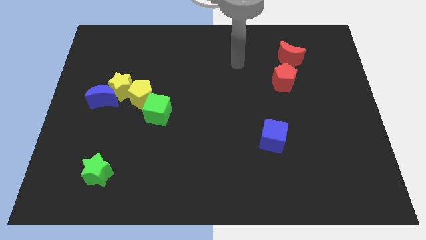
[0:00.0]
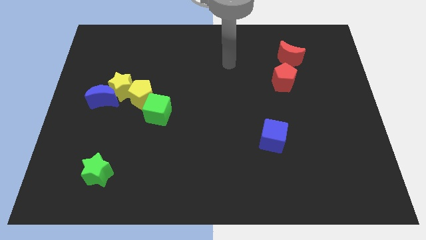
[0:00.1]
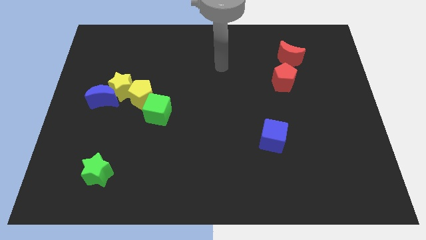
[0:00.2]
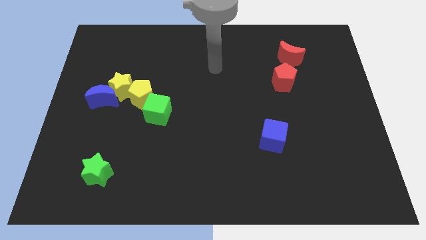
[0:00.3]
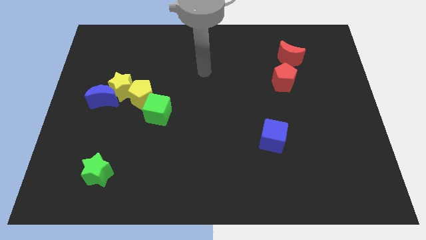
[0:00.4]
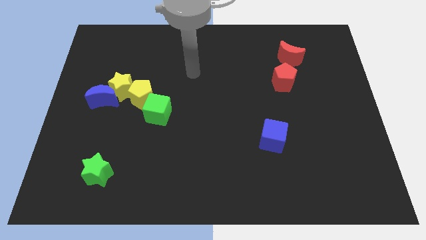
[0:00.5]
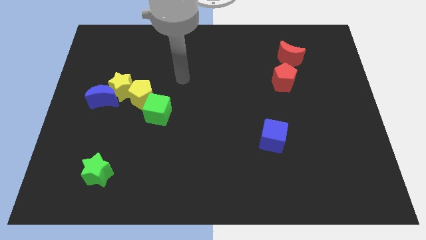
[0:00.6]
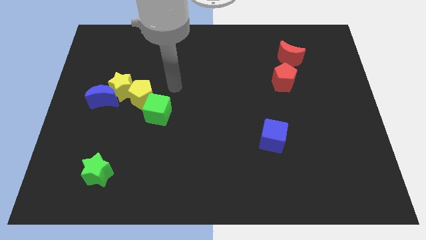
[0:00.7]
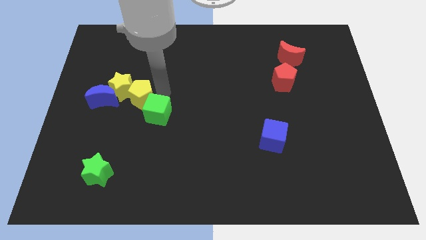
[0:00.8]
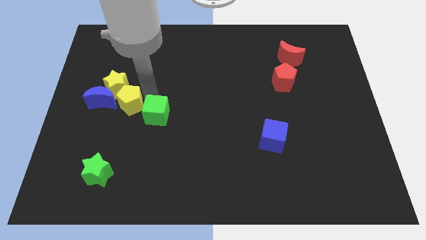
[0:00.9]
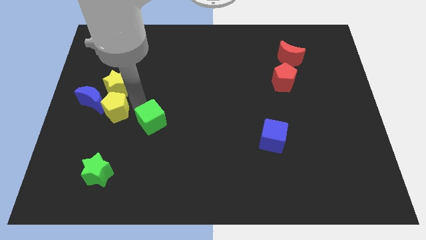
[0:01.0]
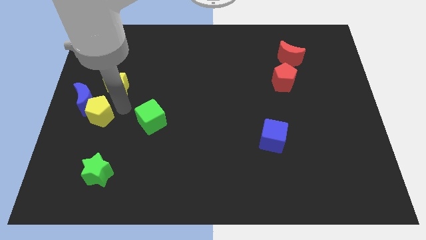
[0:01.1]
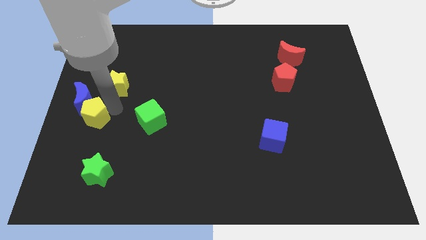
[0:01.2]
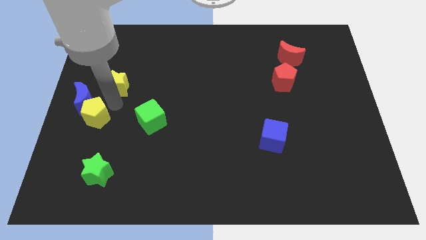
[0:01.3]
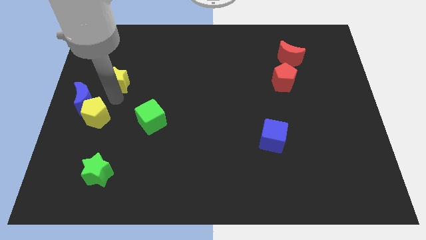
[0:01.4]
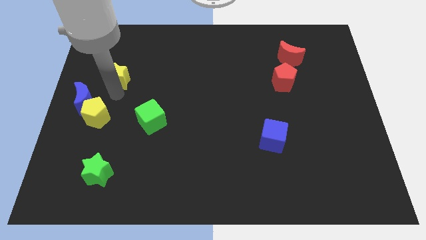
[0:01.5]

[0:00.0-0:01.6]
move the yellow star away from the blue moon and yellow pentagon

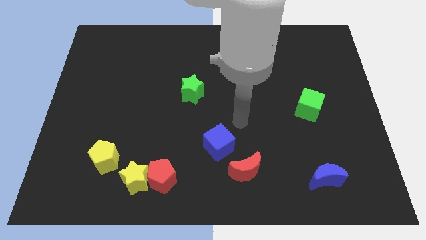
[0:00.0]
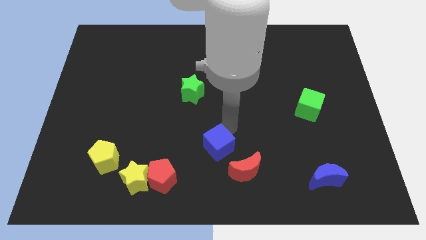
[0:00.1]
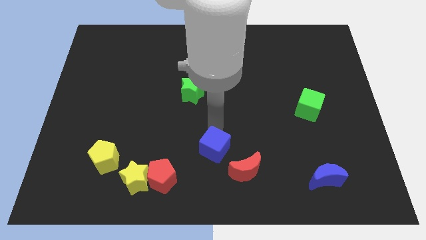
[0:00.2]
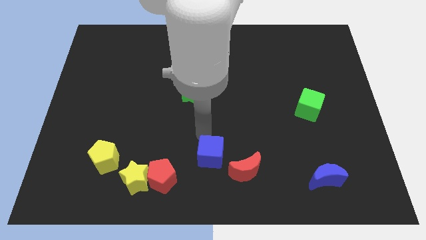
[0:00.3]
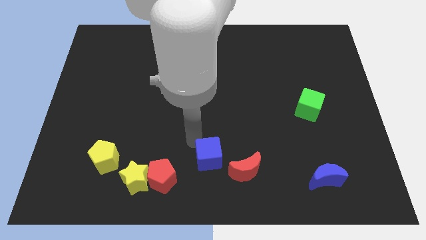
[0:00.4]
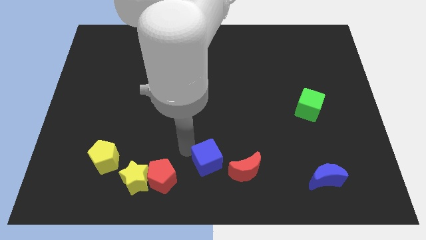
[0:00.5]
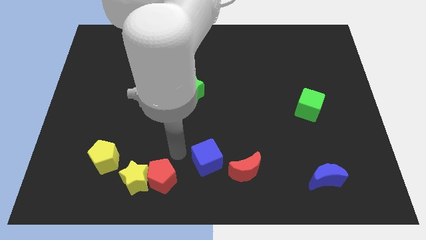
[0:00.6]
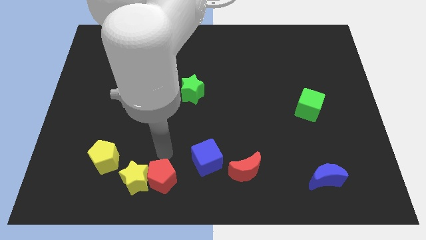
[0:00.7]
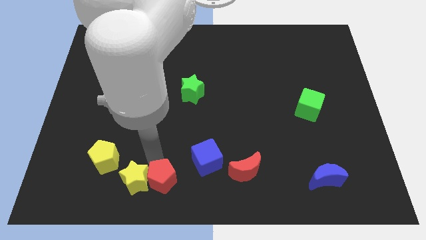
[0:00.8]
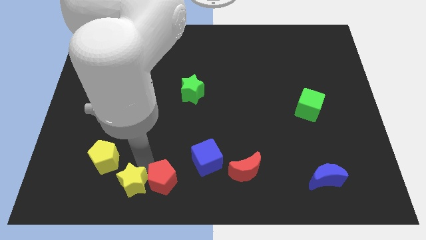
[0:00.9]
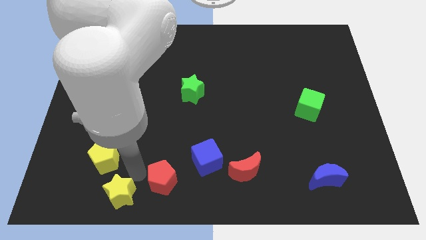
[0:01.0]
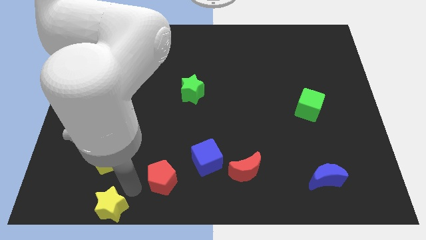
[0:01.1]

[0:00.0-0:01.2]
pull the red pentagon apart from the yellow star

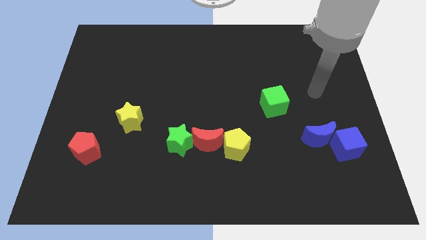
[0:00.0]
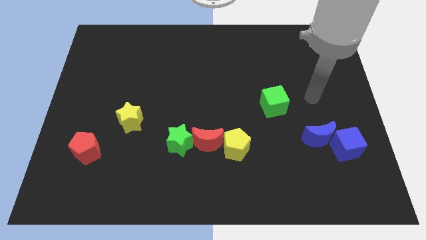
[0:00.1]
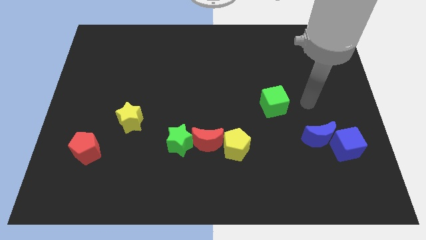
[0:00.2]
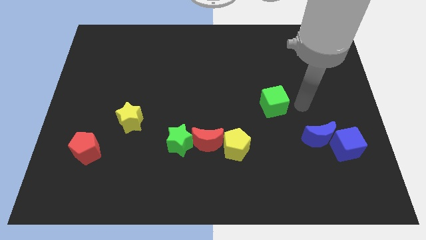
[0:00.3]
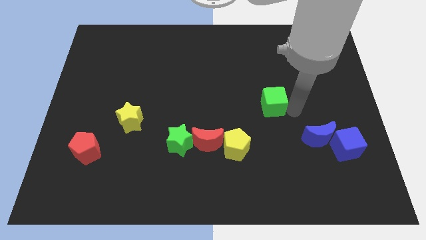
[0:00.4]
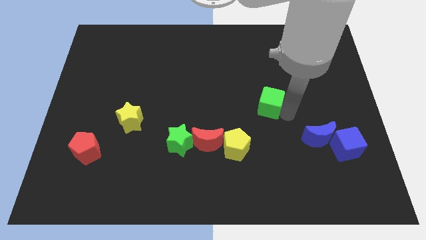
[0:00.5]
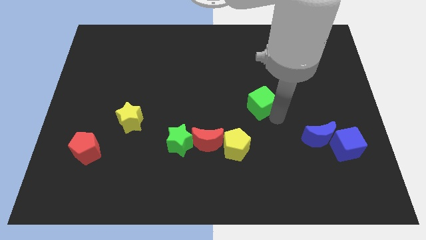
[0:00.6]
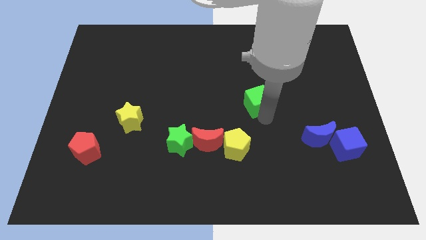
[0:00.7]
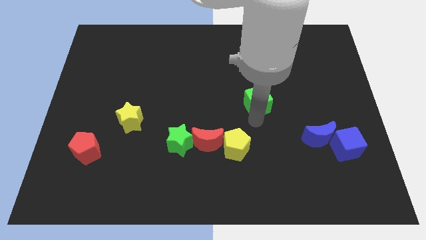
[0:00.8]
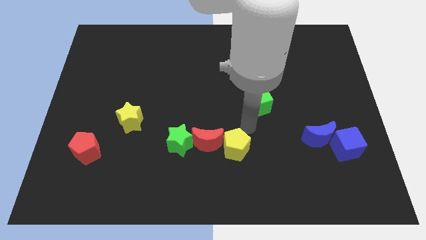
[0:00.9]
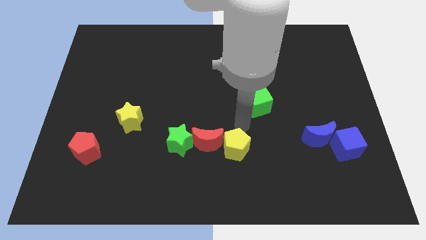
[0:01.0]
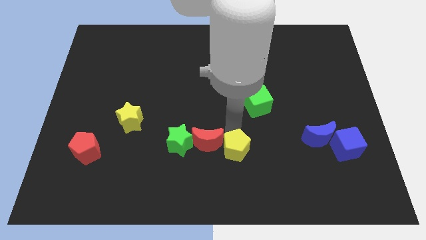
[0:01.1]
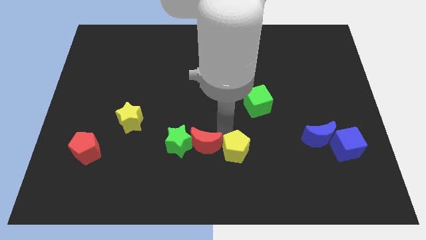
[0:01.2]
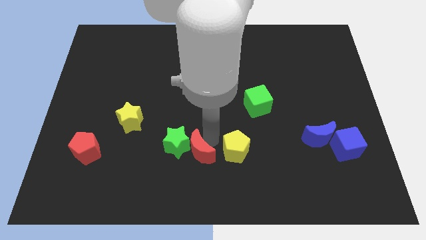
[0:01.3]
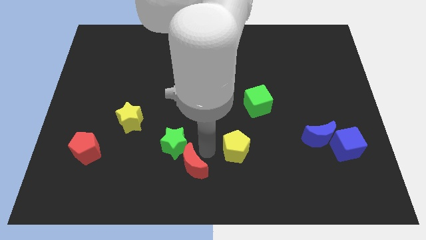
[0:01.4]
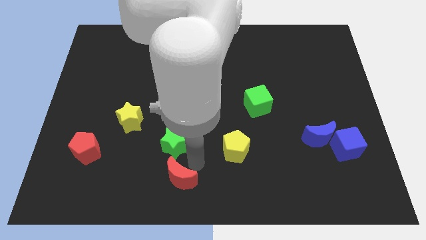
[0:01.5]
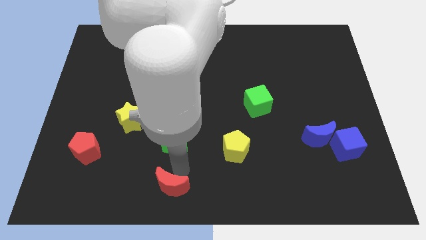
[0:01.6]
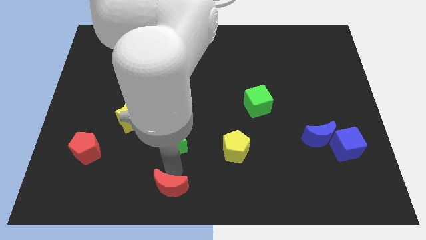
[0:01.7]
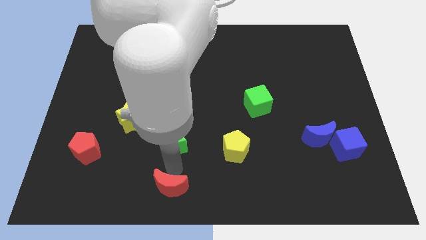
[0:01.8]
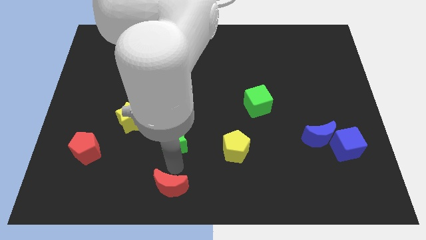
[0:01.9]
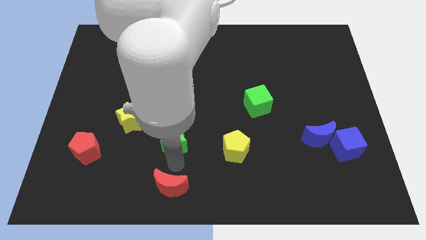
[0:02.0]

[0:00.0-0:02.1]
pull the green star apart from the red moon

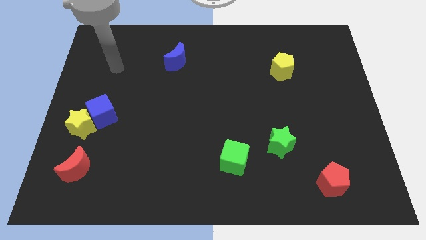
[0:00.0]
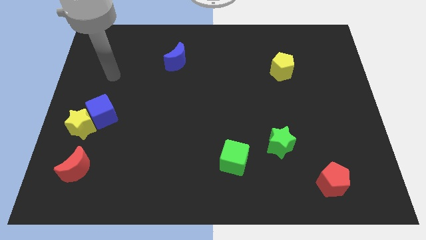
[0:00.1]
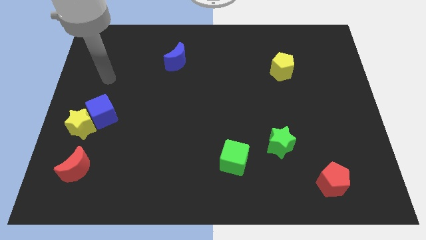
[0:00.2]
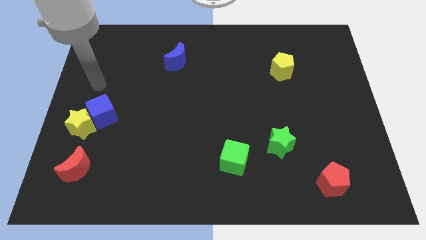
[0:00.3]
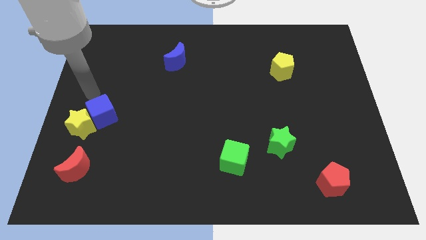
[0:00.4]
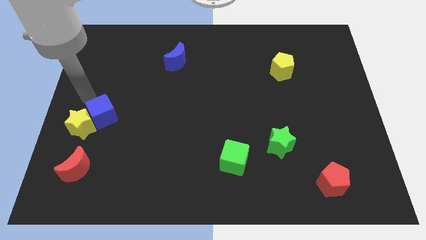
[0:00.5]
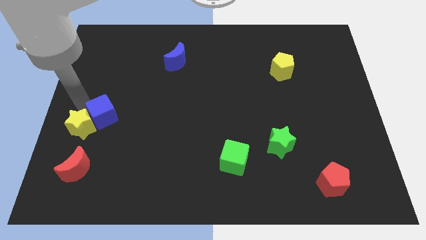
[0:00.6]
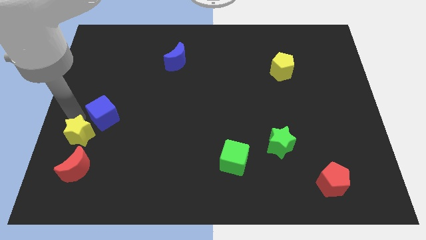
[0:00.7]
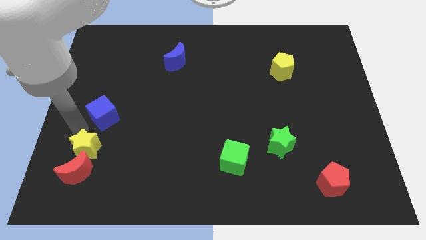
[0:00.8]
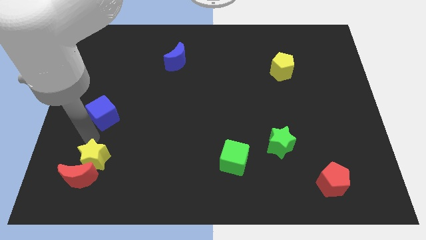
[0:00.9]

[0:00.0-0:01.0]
separate the blue cube from the yellow star

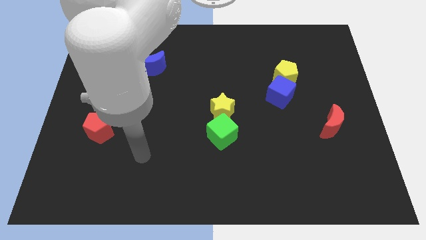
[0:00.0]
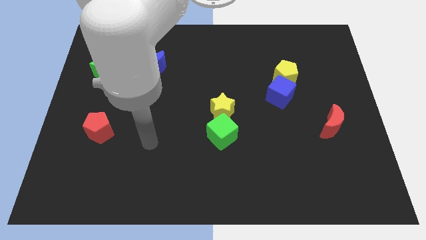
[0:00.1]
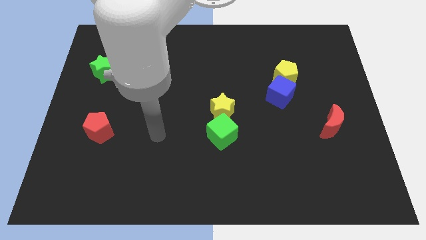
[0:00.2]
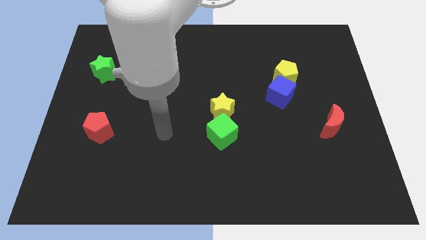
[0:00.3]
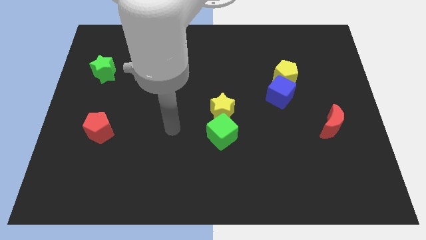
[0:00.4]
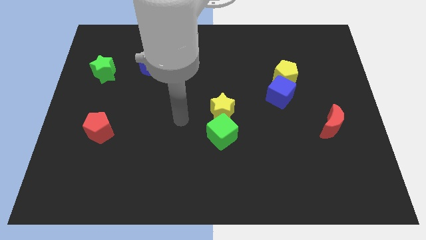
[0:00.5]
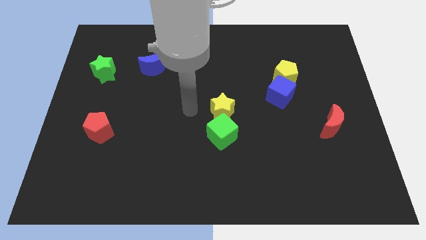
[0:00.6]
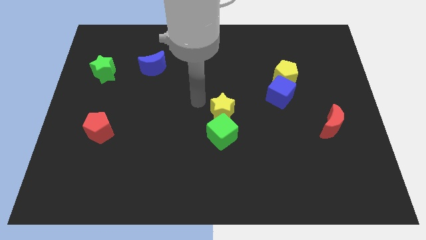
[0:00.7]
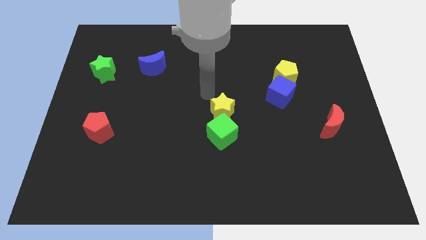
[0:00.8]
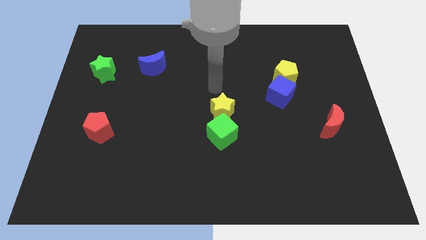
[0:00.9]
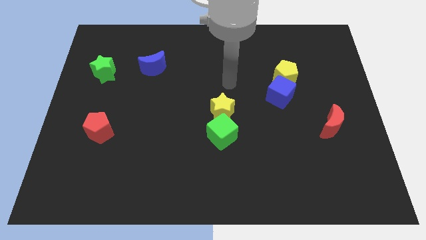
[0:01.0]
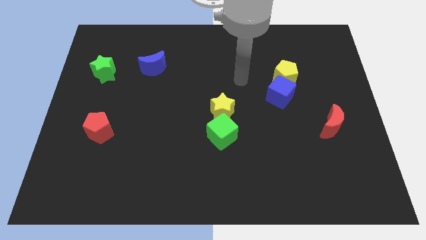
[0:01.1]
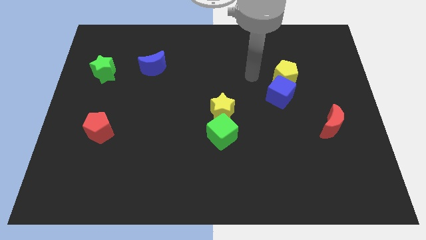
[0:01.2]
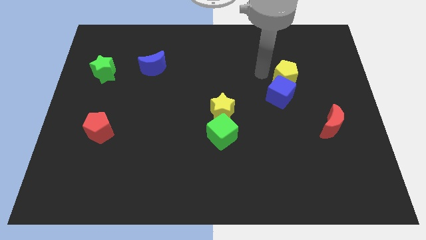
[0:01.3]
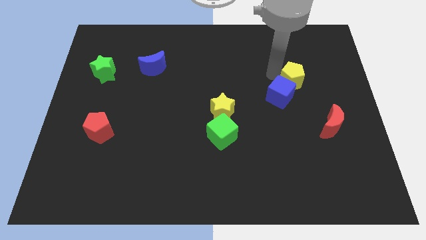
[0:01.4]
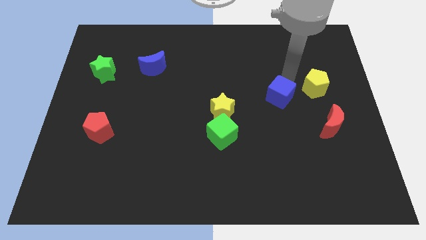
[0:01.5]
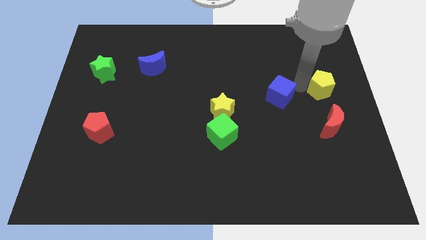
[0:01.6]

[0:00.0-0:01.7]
pull the blue cube apart from the yellow pentagon

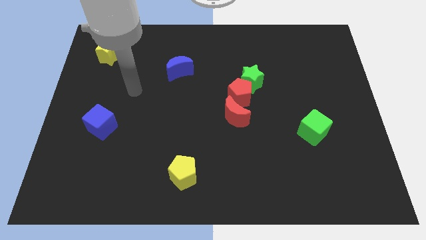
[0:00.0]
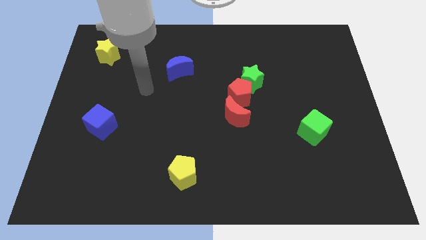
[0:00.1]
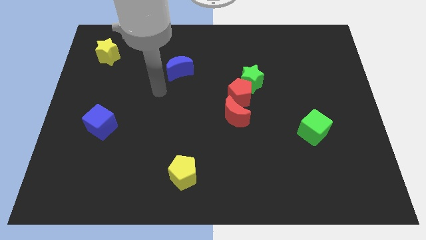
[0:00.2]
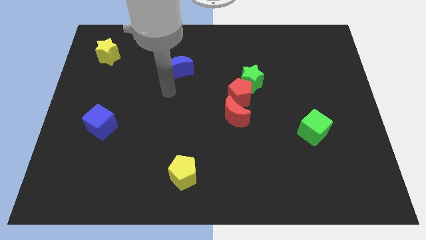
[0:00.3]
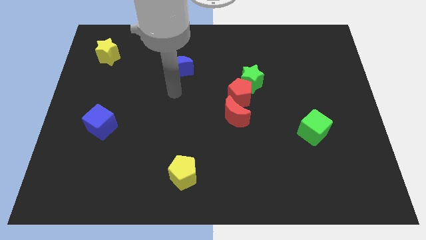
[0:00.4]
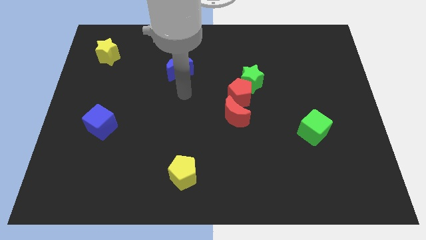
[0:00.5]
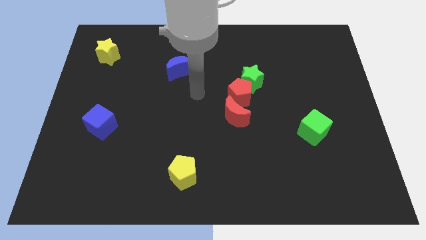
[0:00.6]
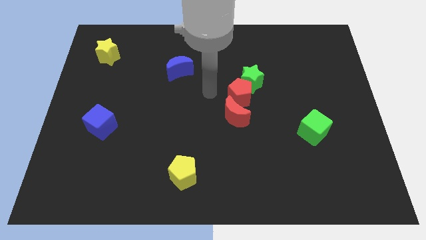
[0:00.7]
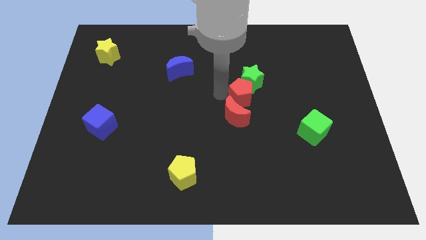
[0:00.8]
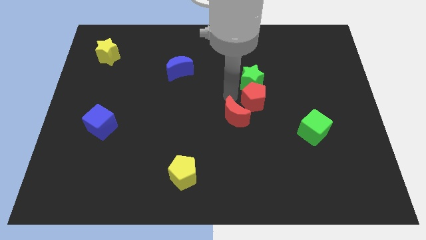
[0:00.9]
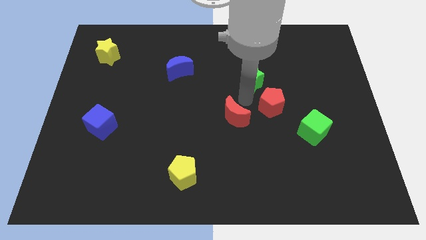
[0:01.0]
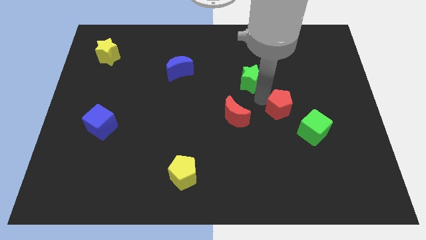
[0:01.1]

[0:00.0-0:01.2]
move the green star away from the red pentagon

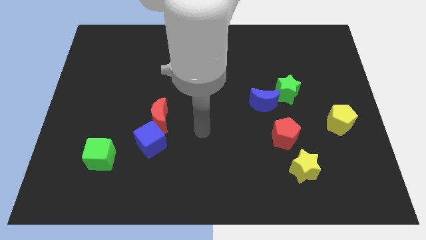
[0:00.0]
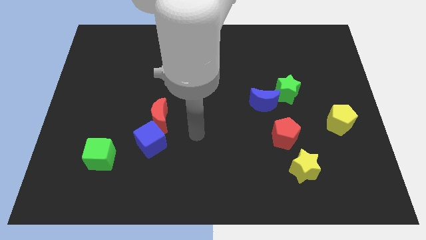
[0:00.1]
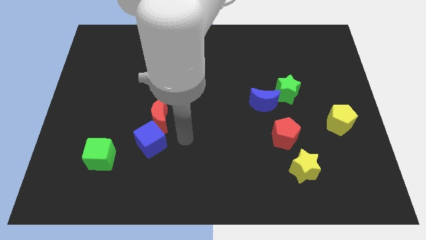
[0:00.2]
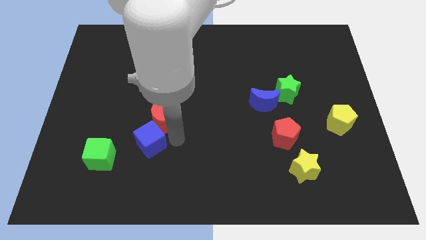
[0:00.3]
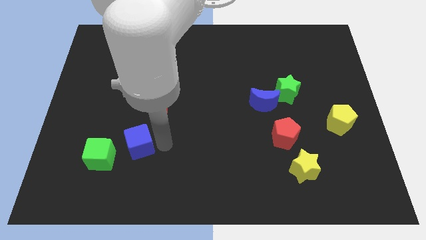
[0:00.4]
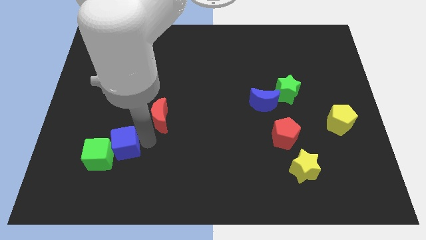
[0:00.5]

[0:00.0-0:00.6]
separate the red moon from the blue cube
